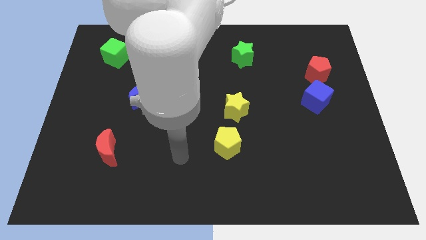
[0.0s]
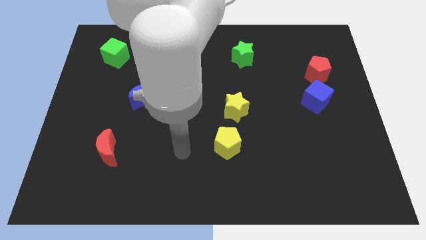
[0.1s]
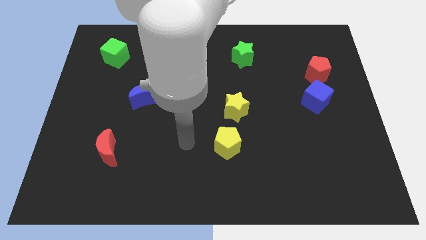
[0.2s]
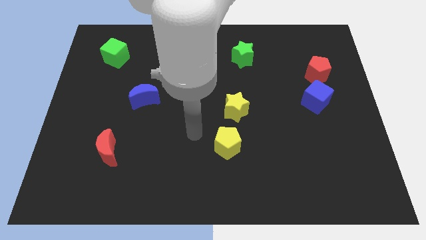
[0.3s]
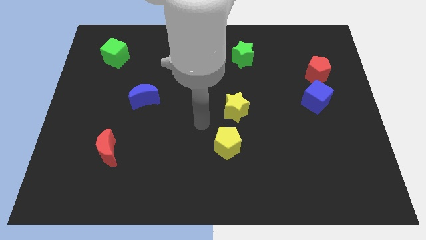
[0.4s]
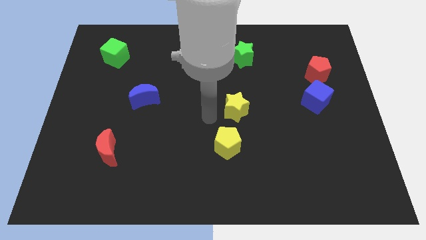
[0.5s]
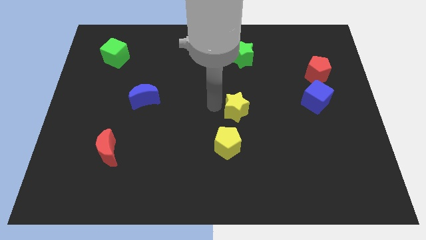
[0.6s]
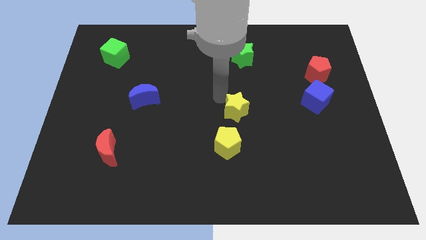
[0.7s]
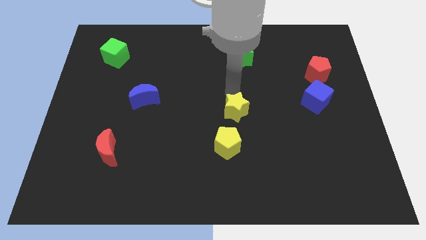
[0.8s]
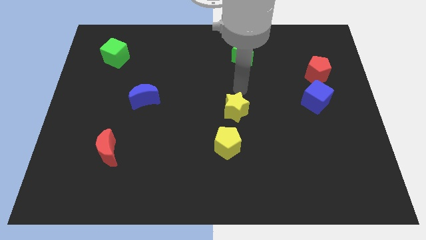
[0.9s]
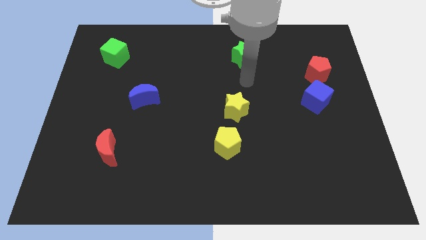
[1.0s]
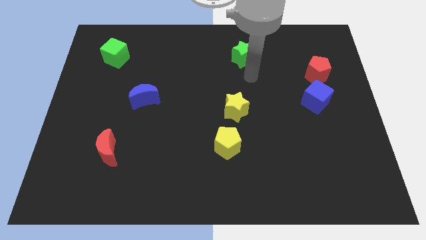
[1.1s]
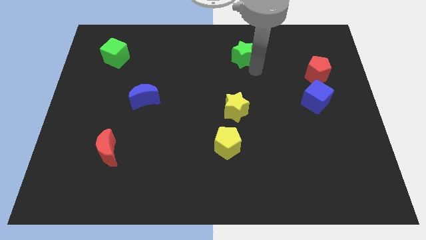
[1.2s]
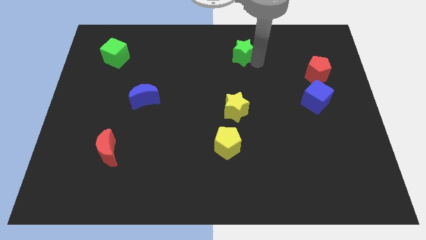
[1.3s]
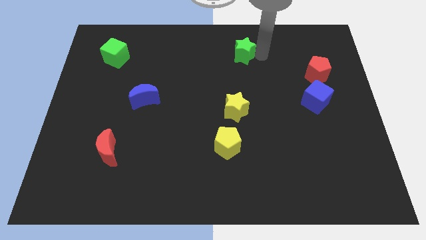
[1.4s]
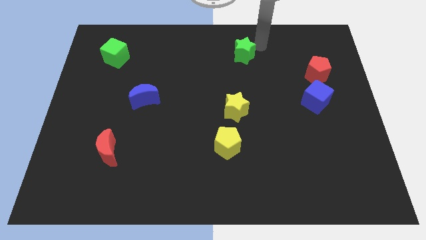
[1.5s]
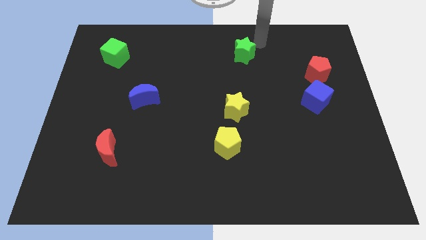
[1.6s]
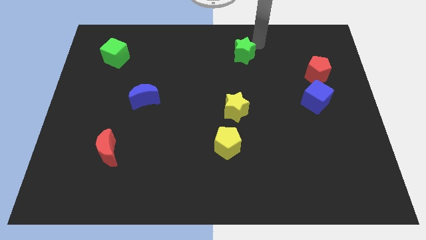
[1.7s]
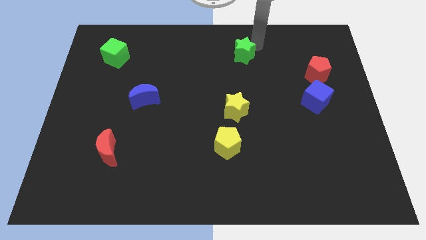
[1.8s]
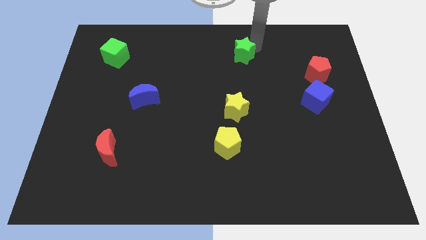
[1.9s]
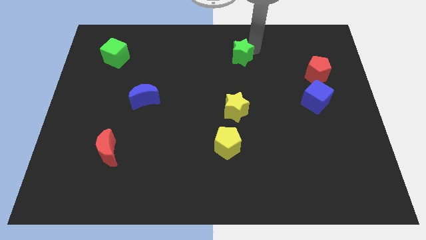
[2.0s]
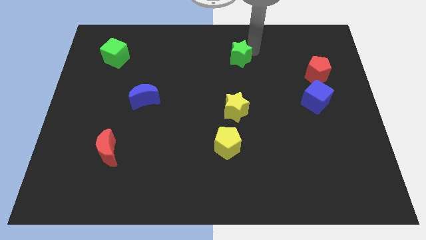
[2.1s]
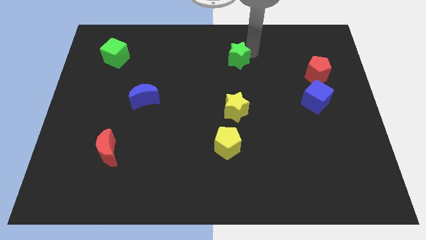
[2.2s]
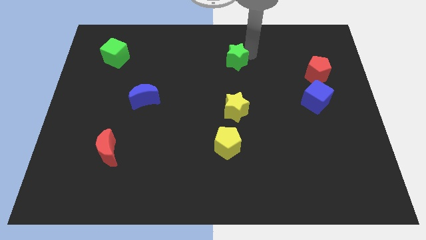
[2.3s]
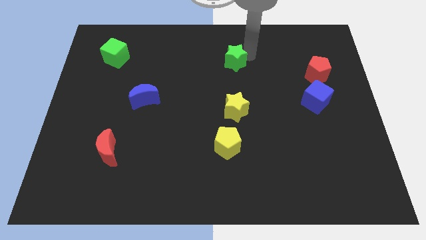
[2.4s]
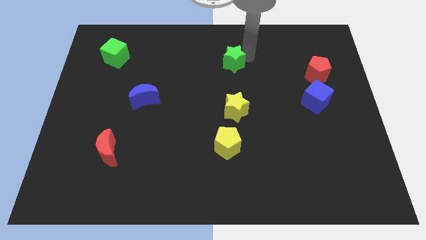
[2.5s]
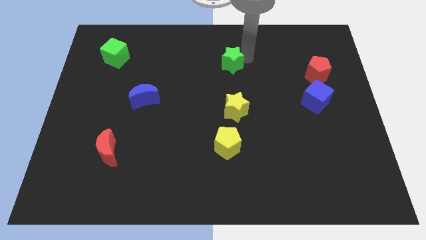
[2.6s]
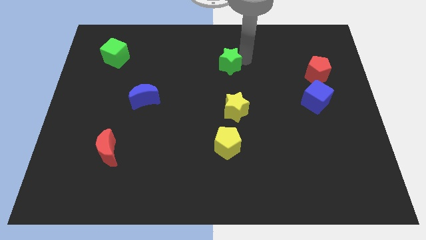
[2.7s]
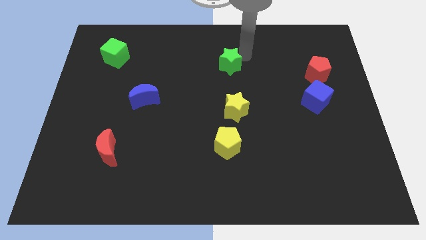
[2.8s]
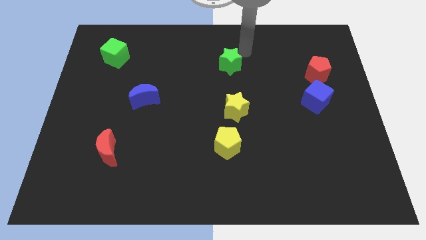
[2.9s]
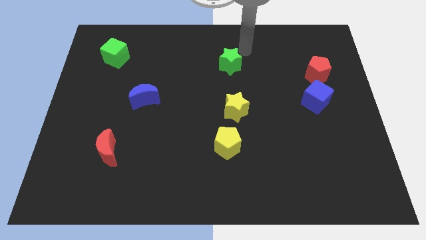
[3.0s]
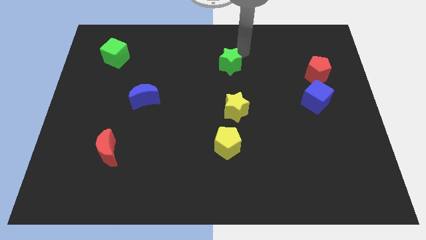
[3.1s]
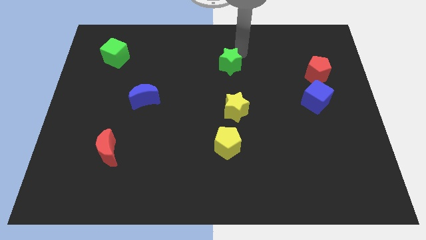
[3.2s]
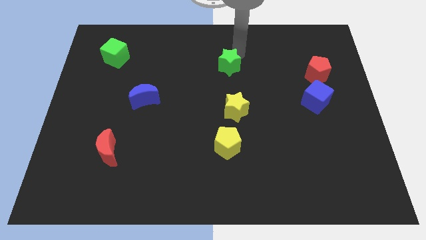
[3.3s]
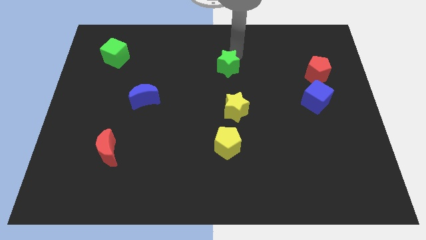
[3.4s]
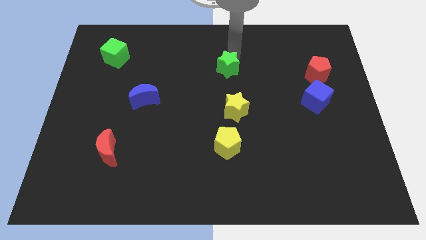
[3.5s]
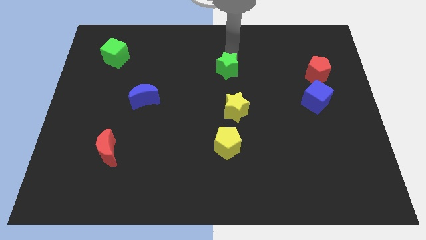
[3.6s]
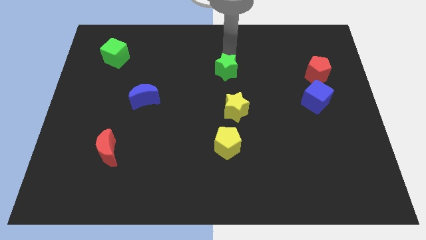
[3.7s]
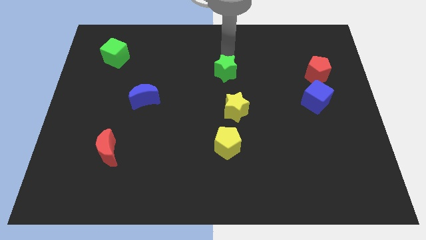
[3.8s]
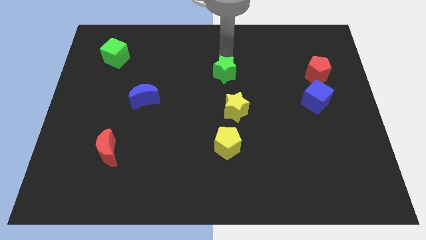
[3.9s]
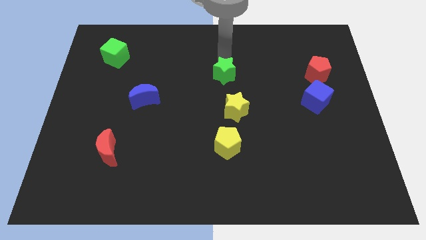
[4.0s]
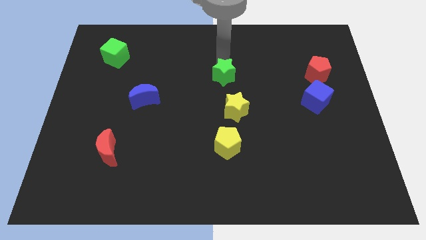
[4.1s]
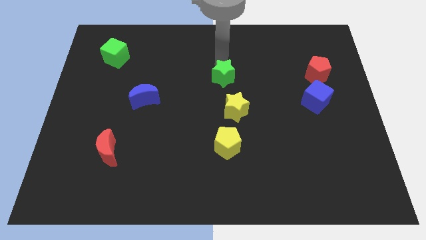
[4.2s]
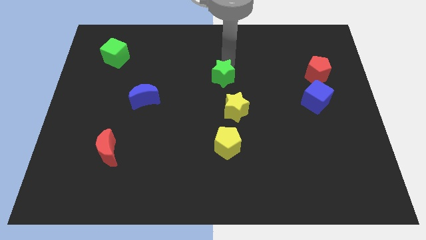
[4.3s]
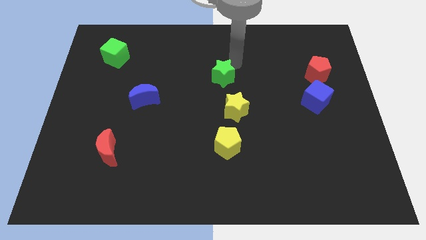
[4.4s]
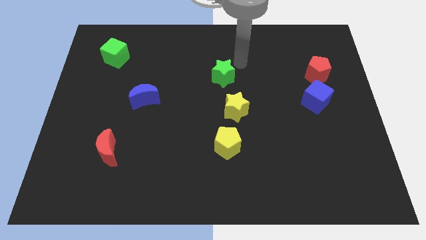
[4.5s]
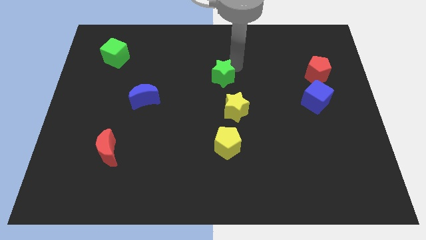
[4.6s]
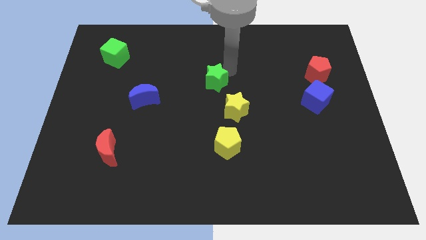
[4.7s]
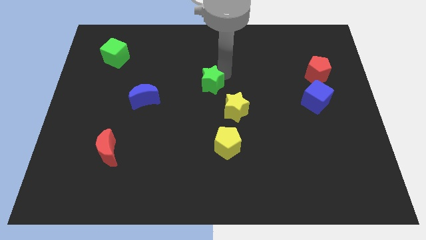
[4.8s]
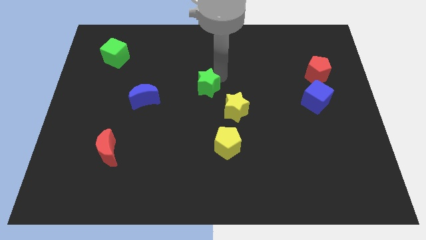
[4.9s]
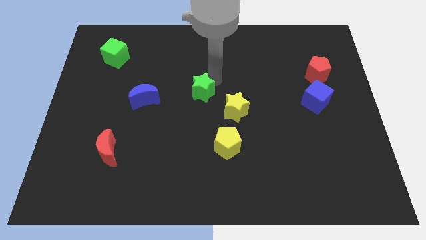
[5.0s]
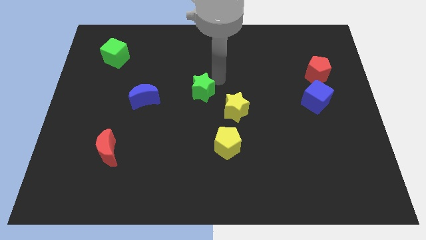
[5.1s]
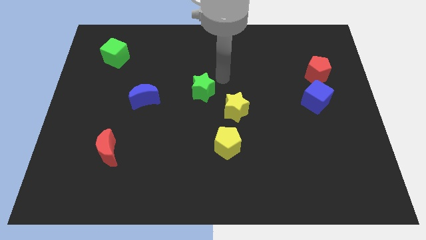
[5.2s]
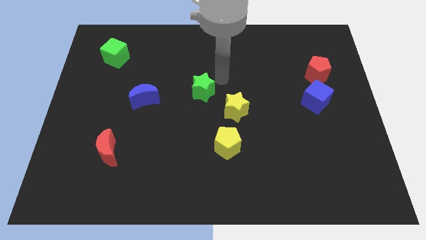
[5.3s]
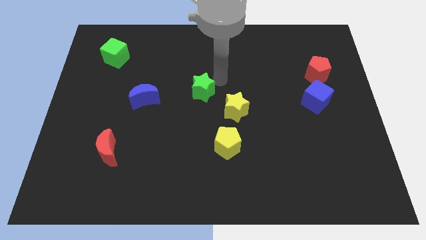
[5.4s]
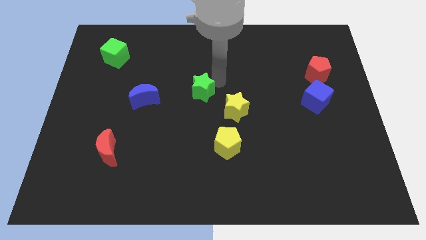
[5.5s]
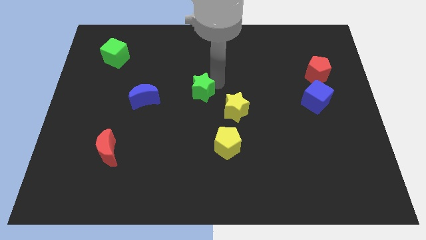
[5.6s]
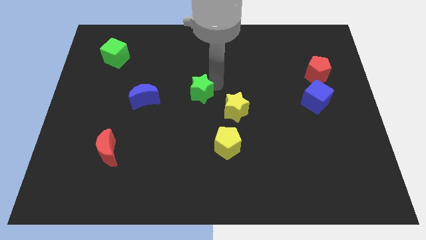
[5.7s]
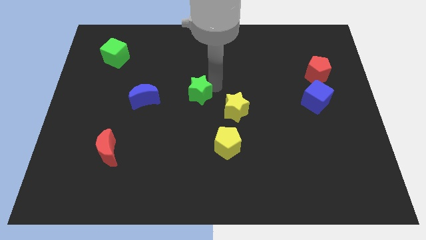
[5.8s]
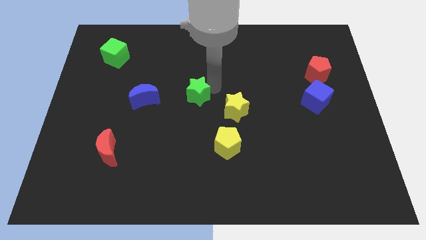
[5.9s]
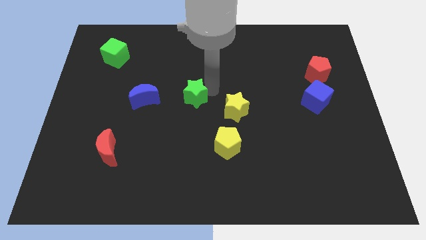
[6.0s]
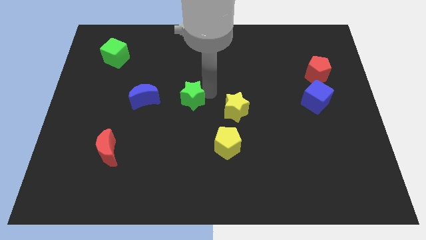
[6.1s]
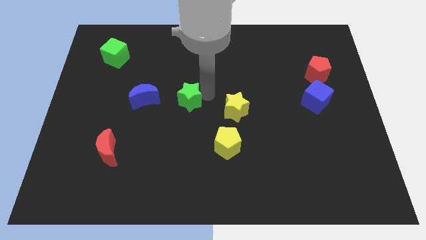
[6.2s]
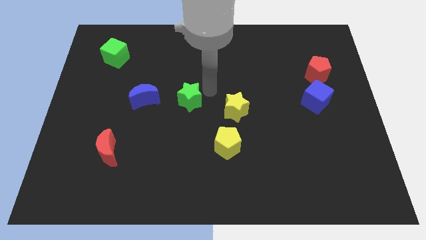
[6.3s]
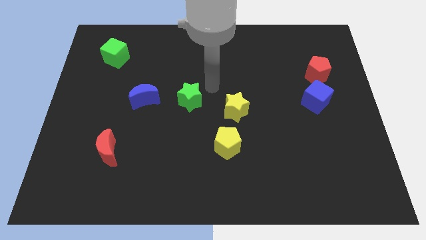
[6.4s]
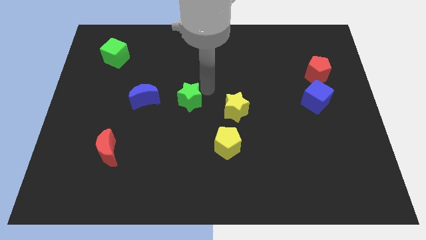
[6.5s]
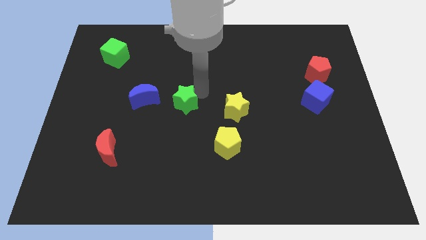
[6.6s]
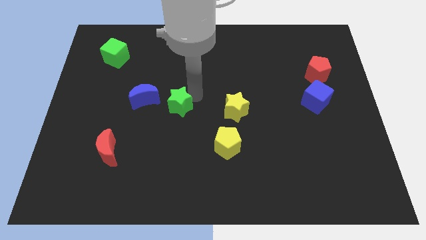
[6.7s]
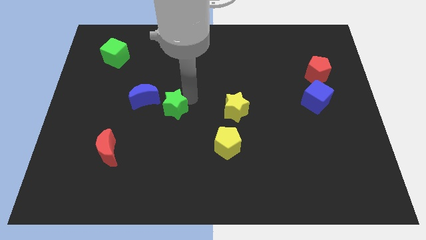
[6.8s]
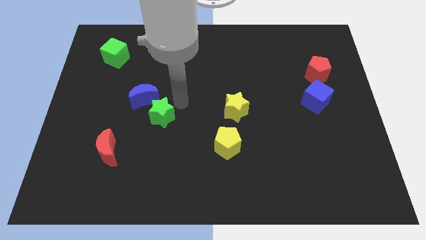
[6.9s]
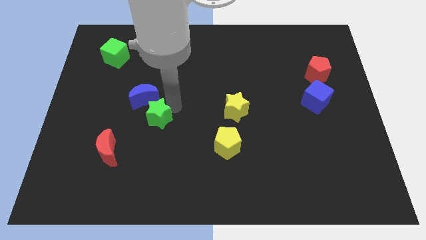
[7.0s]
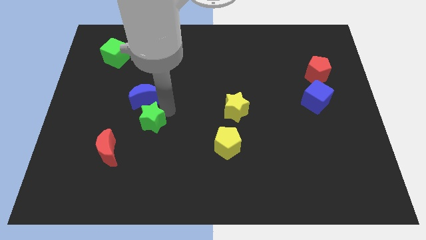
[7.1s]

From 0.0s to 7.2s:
move the green star to the top right of the red moon
